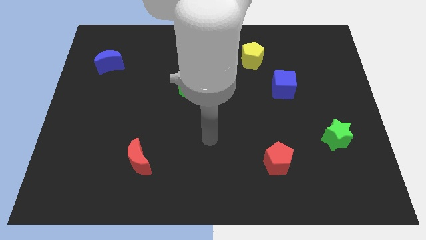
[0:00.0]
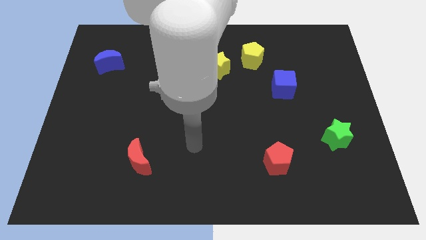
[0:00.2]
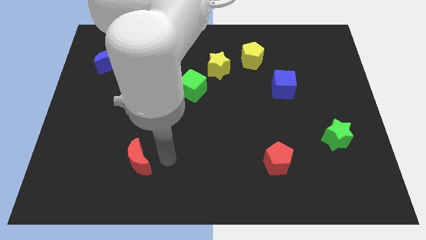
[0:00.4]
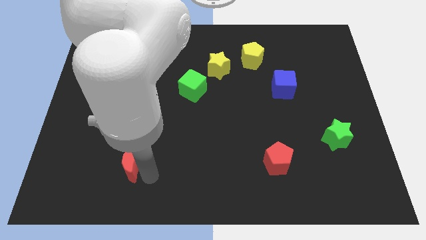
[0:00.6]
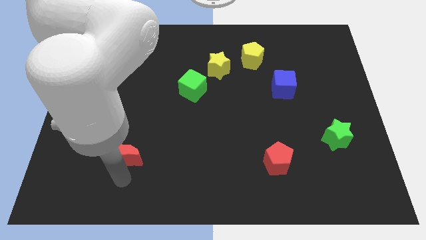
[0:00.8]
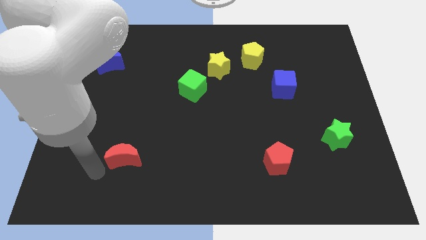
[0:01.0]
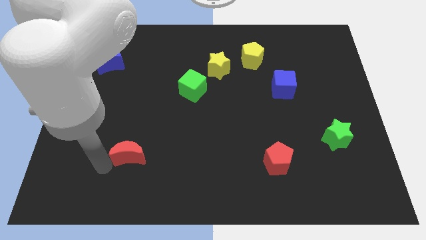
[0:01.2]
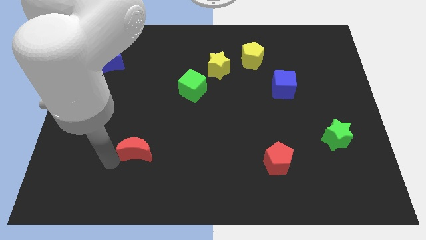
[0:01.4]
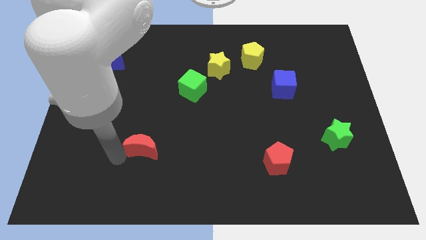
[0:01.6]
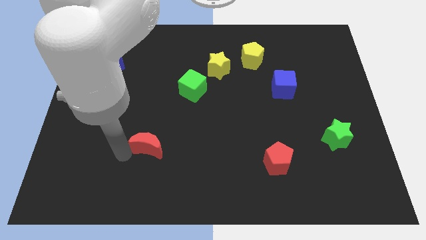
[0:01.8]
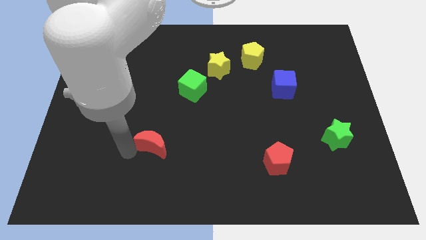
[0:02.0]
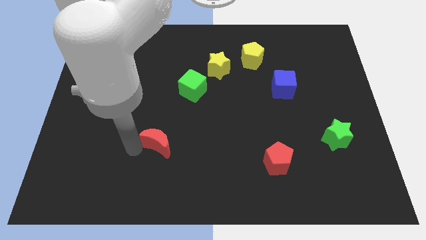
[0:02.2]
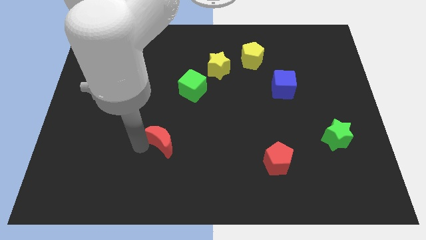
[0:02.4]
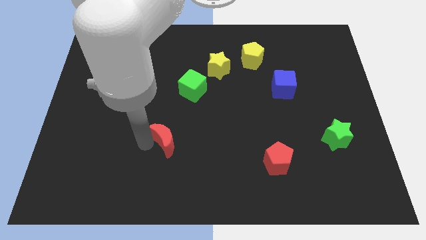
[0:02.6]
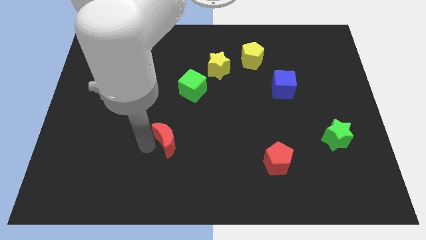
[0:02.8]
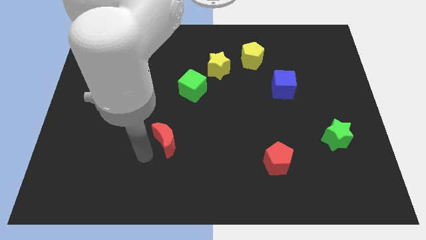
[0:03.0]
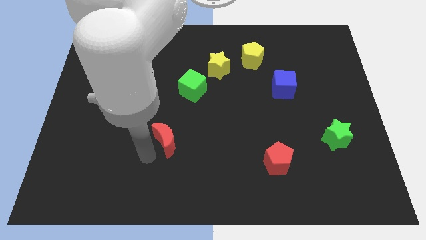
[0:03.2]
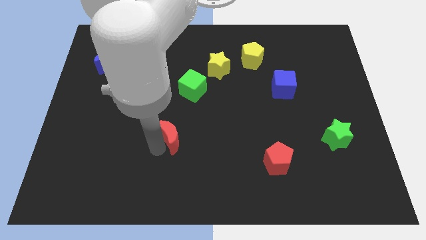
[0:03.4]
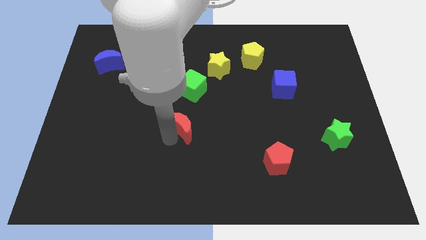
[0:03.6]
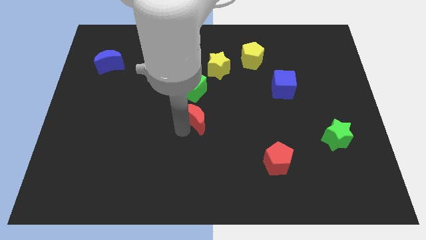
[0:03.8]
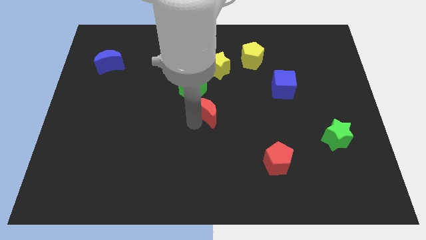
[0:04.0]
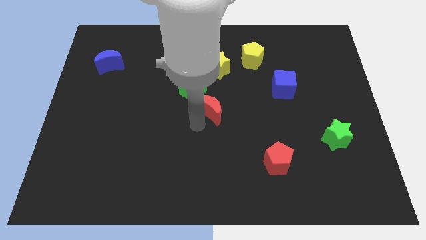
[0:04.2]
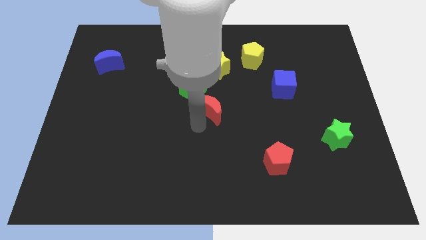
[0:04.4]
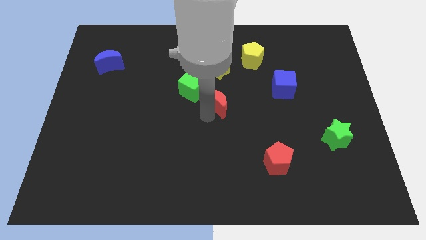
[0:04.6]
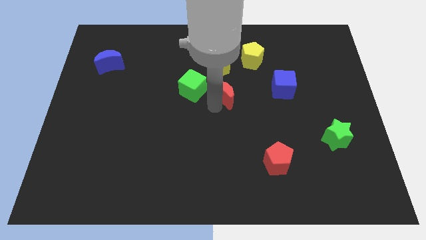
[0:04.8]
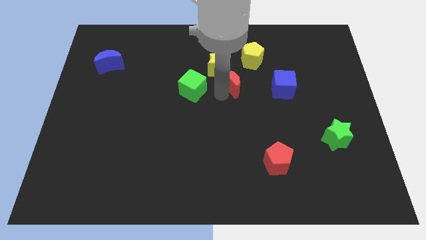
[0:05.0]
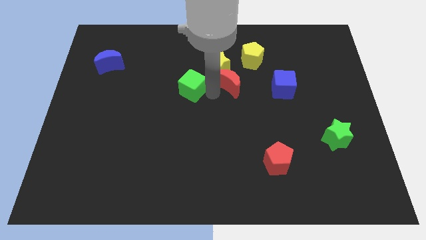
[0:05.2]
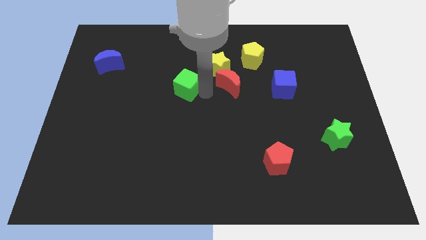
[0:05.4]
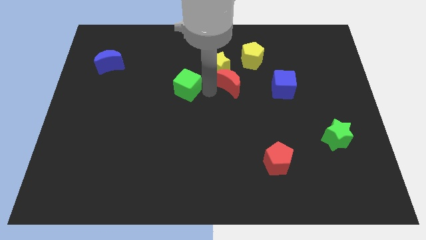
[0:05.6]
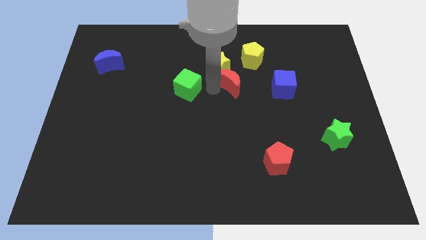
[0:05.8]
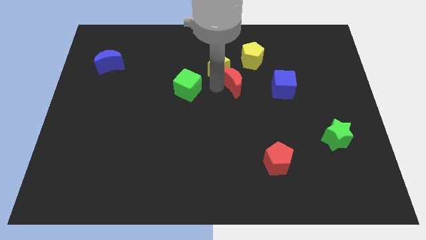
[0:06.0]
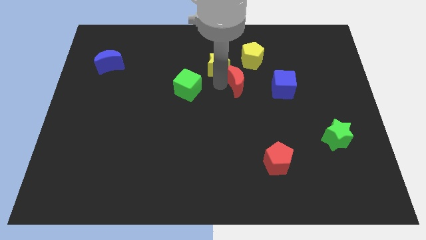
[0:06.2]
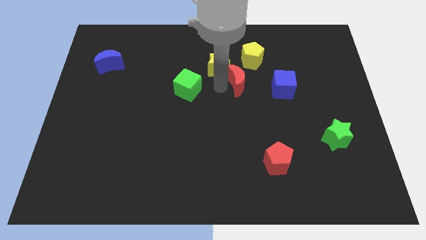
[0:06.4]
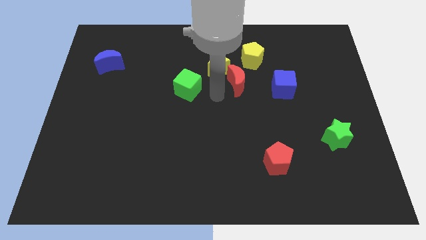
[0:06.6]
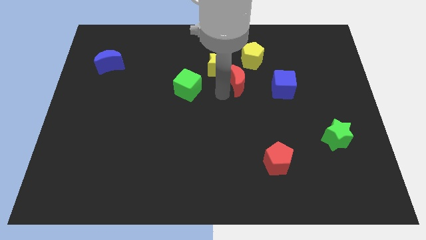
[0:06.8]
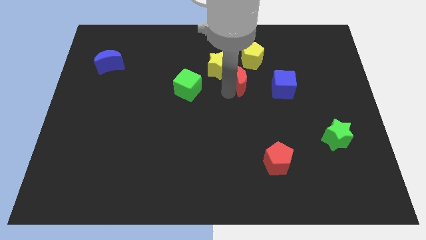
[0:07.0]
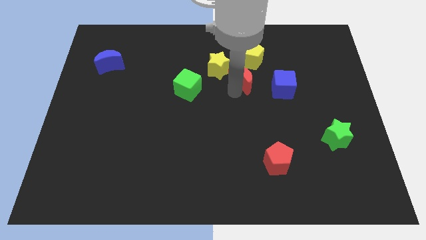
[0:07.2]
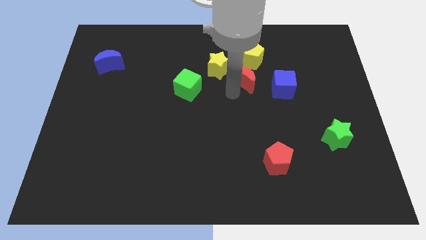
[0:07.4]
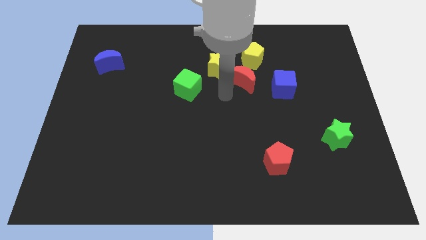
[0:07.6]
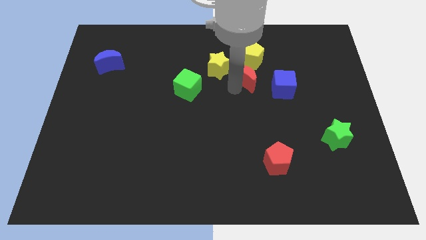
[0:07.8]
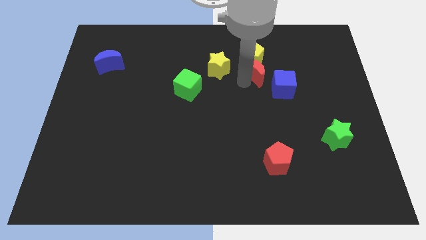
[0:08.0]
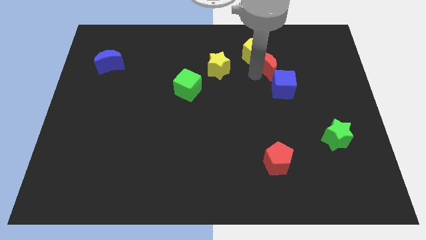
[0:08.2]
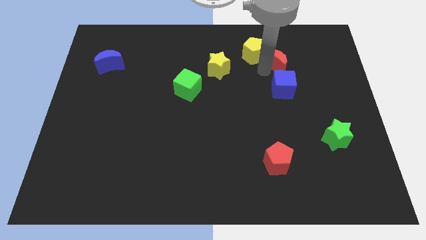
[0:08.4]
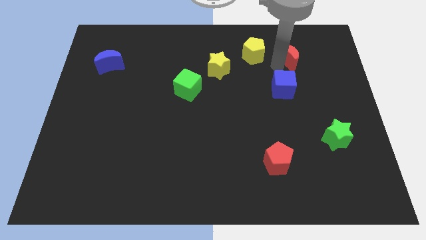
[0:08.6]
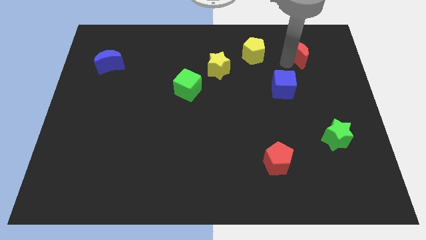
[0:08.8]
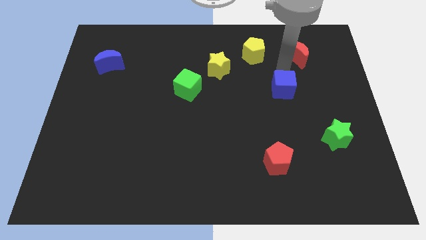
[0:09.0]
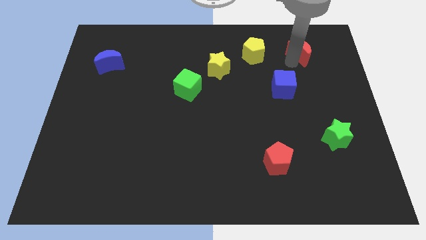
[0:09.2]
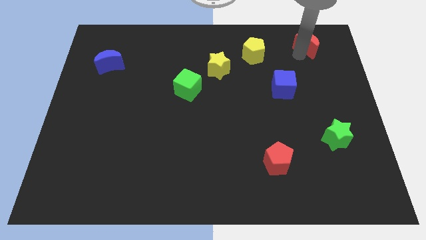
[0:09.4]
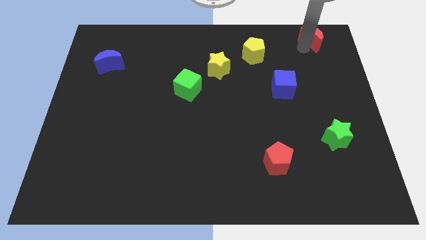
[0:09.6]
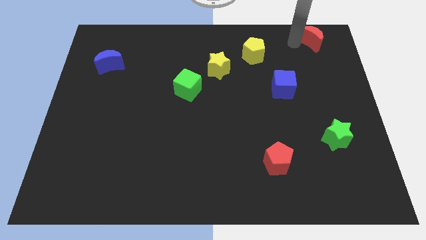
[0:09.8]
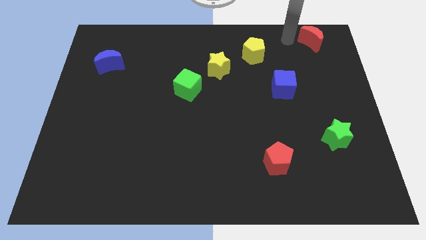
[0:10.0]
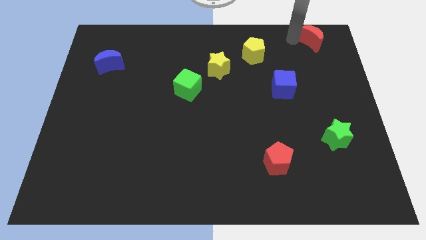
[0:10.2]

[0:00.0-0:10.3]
slide the red moon to the upper right corner

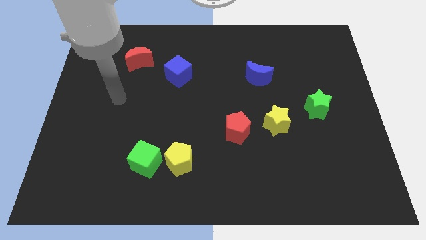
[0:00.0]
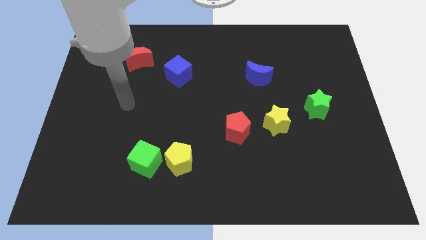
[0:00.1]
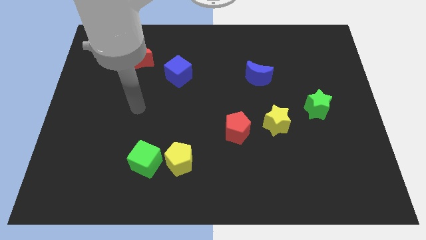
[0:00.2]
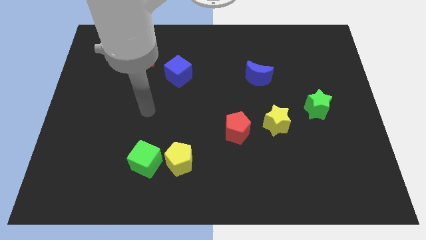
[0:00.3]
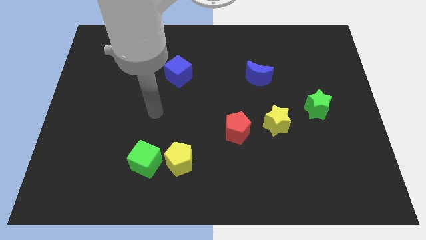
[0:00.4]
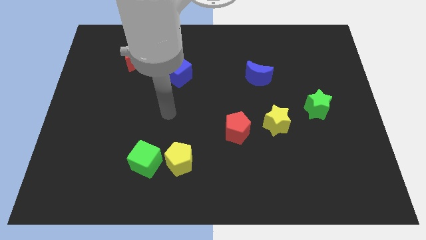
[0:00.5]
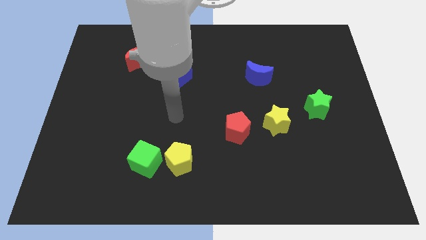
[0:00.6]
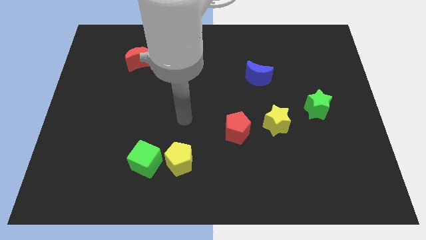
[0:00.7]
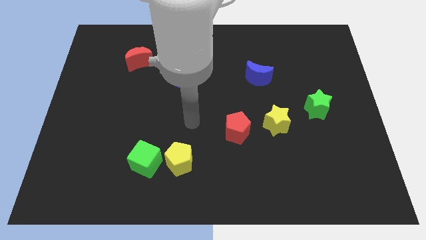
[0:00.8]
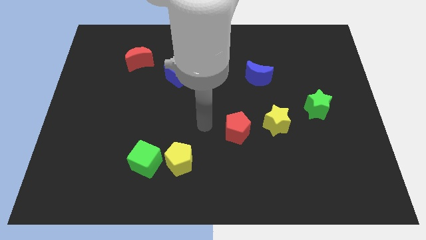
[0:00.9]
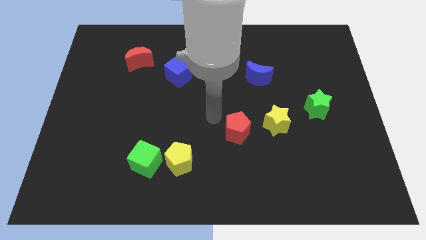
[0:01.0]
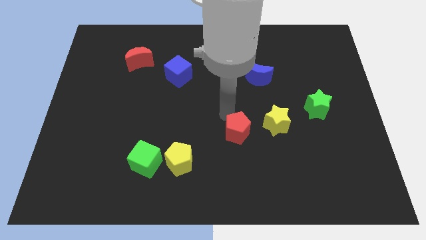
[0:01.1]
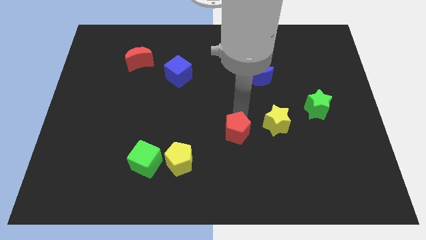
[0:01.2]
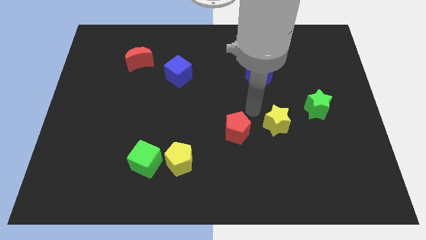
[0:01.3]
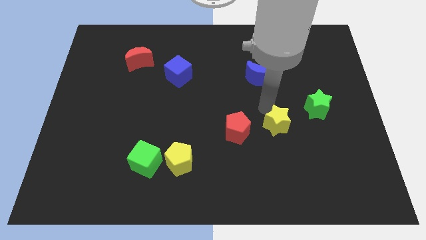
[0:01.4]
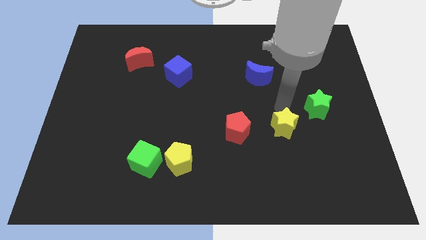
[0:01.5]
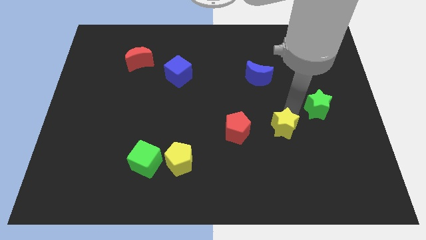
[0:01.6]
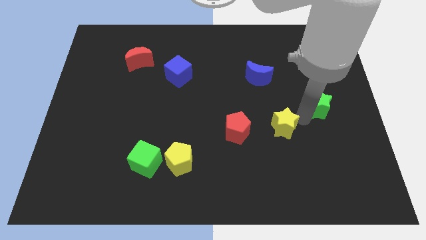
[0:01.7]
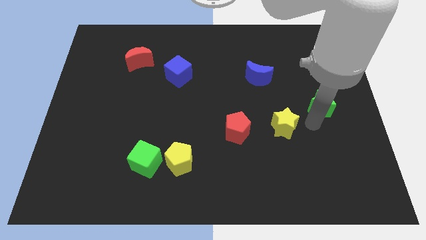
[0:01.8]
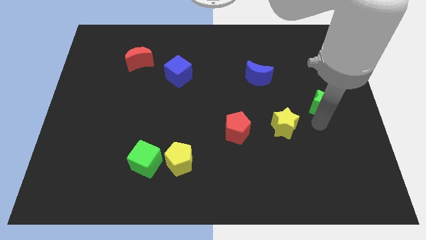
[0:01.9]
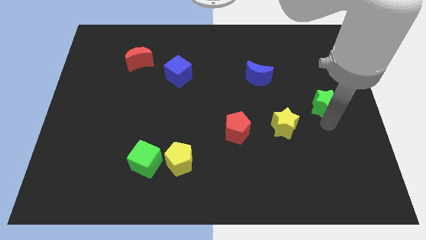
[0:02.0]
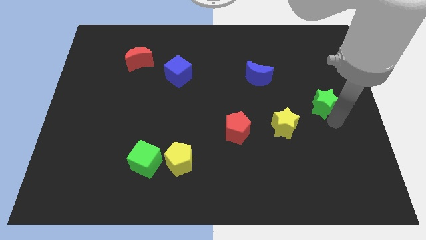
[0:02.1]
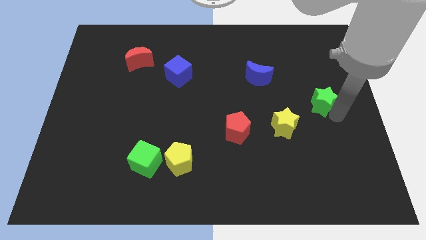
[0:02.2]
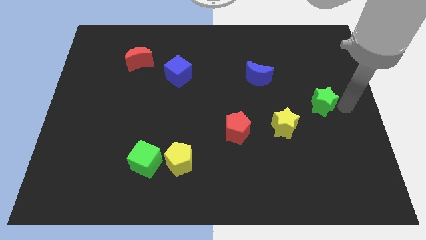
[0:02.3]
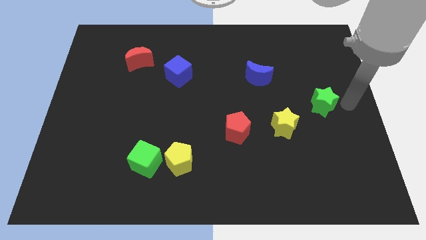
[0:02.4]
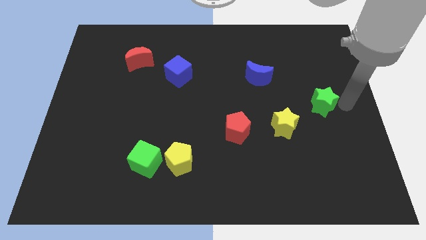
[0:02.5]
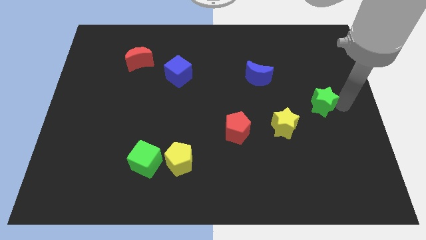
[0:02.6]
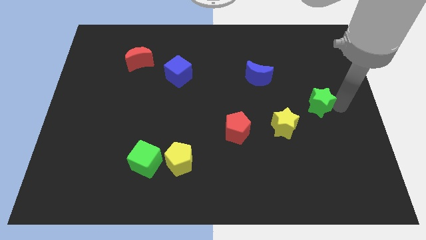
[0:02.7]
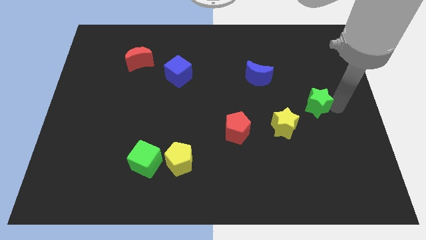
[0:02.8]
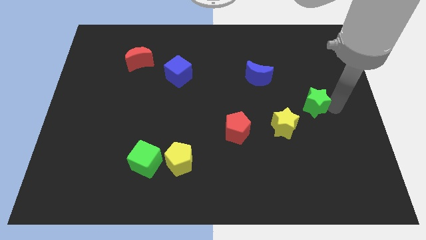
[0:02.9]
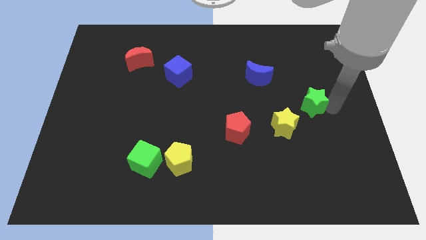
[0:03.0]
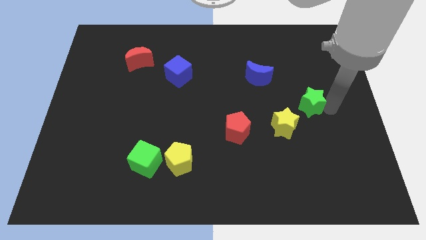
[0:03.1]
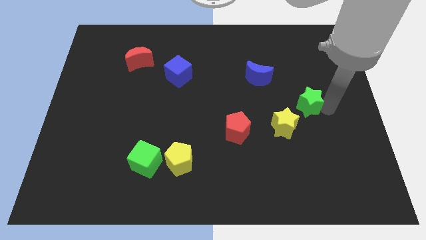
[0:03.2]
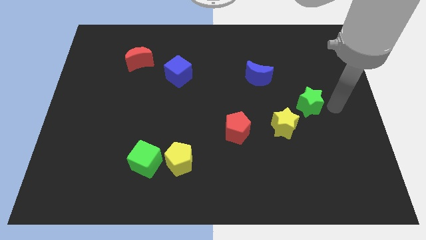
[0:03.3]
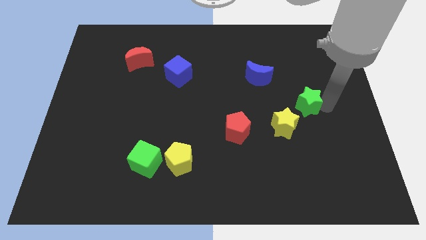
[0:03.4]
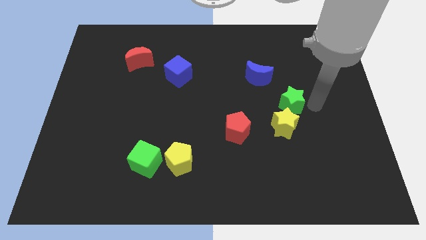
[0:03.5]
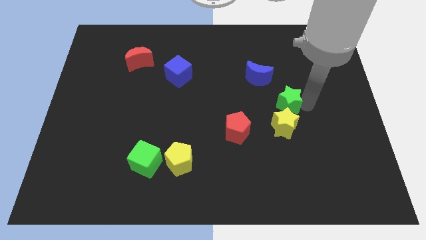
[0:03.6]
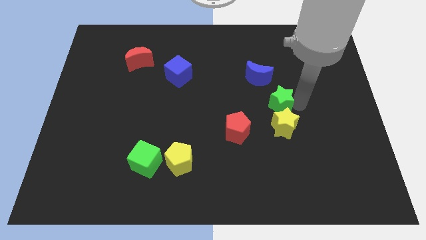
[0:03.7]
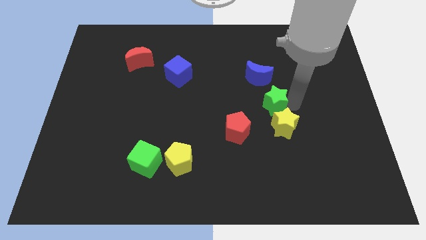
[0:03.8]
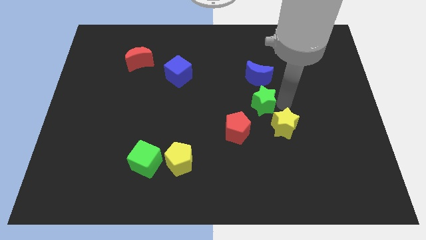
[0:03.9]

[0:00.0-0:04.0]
move the green star to the center
